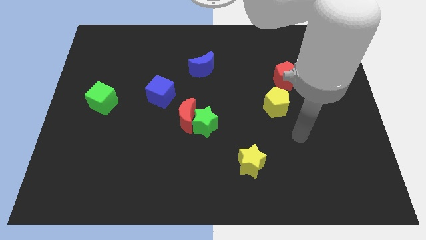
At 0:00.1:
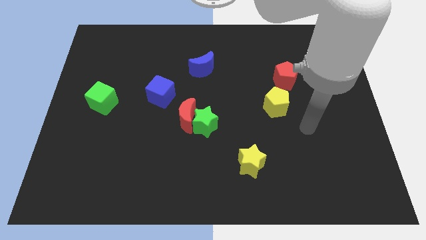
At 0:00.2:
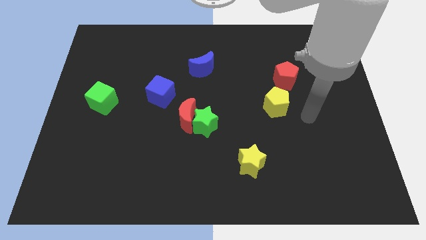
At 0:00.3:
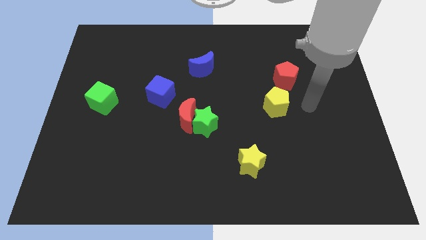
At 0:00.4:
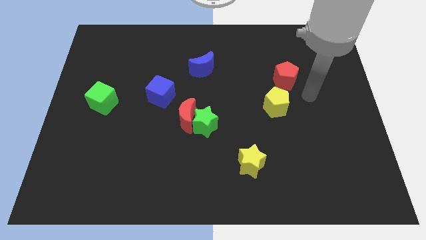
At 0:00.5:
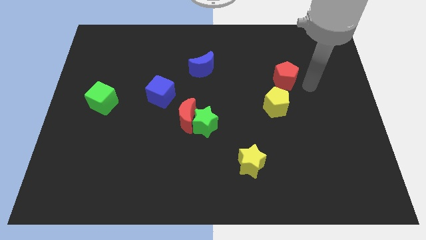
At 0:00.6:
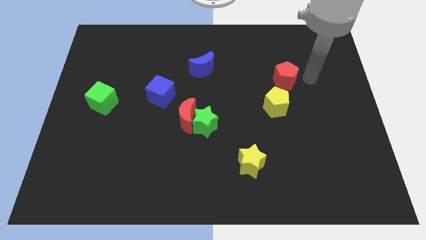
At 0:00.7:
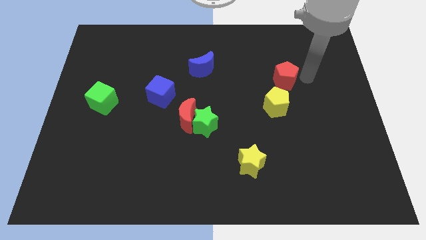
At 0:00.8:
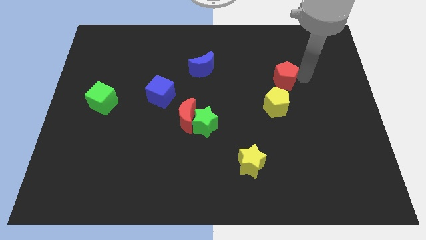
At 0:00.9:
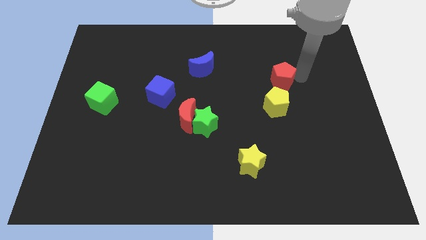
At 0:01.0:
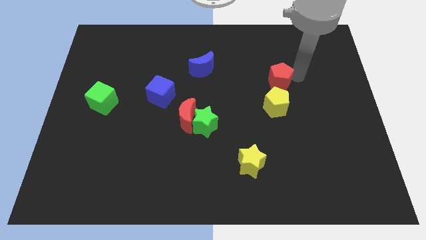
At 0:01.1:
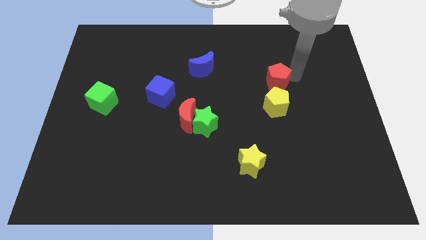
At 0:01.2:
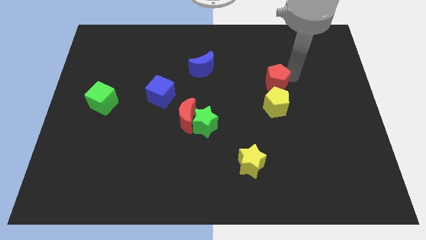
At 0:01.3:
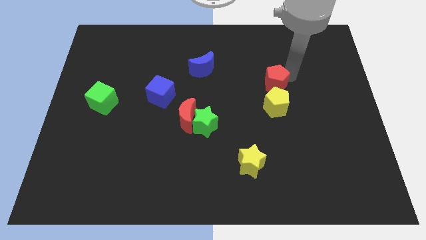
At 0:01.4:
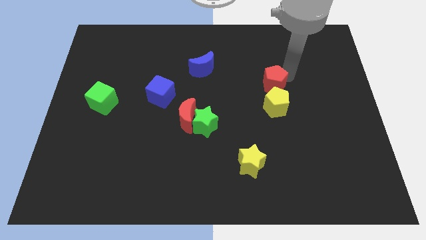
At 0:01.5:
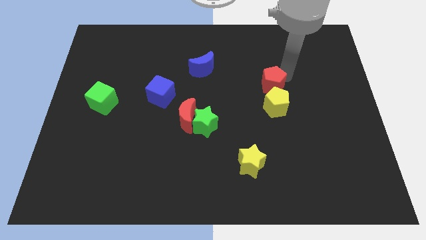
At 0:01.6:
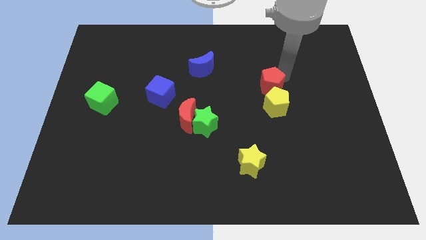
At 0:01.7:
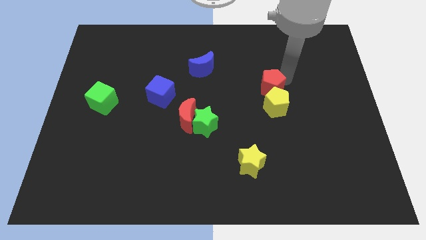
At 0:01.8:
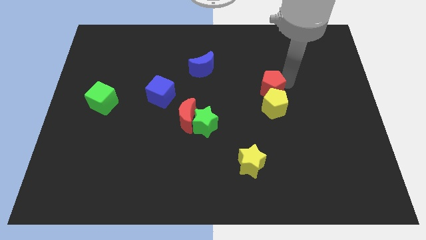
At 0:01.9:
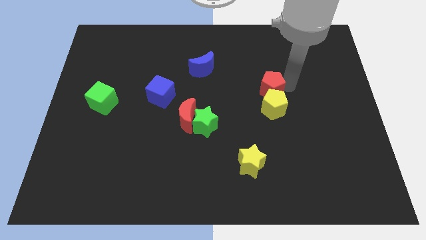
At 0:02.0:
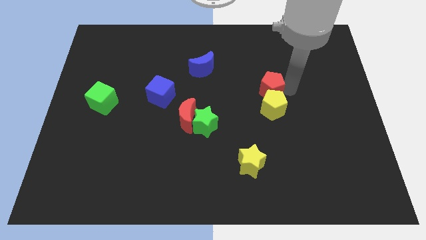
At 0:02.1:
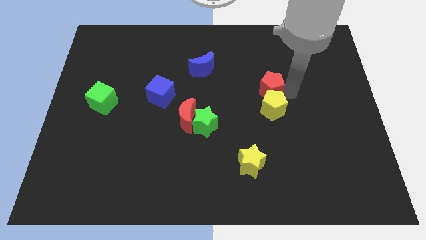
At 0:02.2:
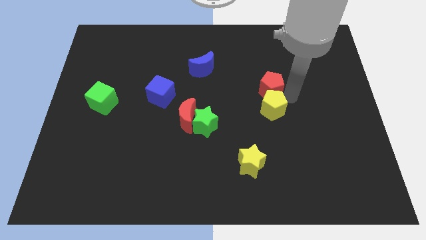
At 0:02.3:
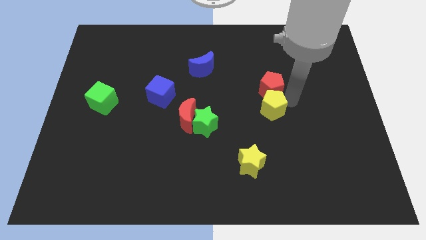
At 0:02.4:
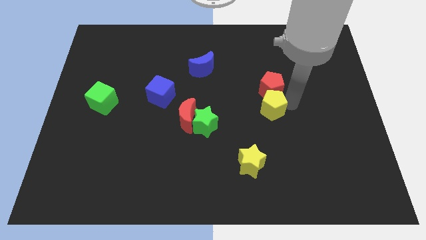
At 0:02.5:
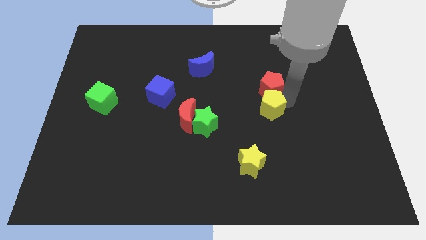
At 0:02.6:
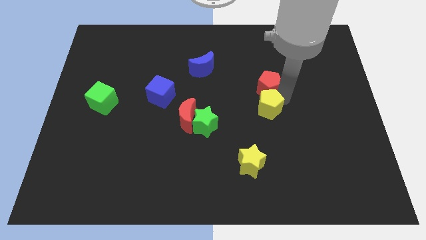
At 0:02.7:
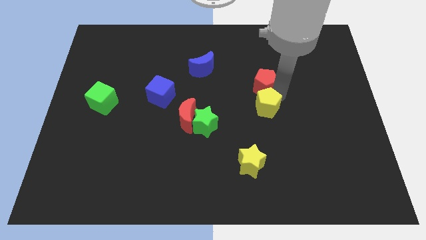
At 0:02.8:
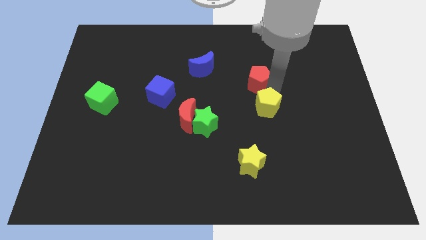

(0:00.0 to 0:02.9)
move the red pentagon a bit left

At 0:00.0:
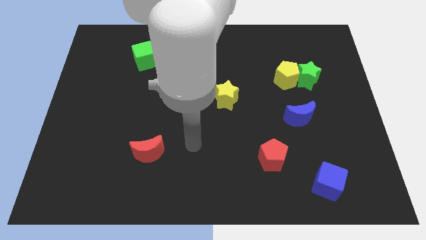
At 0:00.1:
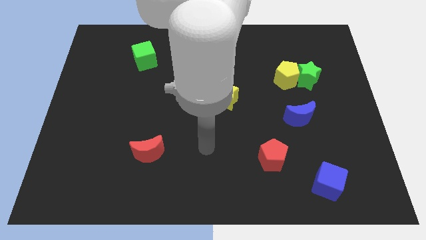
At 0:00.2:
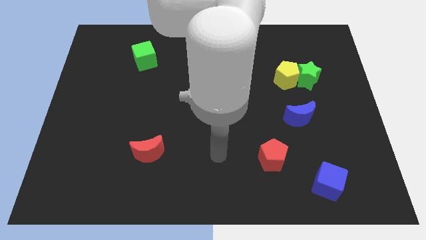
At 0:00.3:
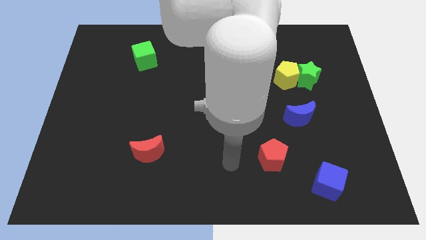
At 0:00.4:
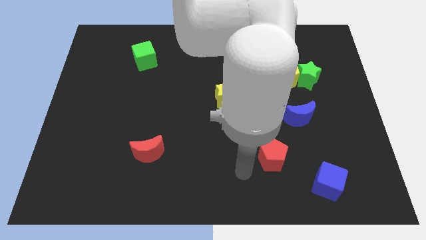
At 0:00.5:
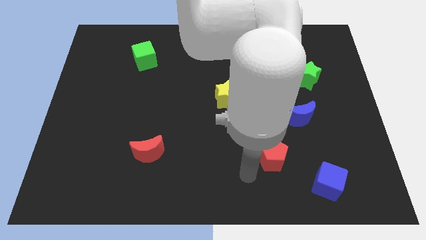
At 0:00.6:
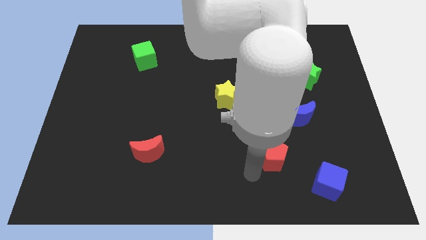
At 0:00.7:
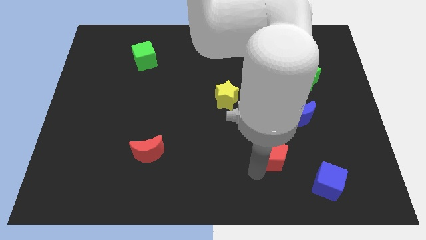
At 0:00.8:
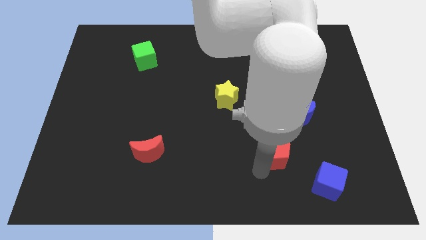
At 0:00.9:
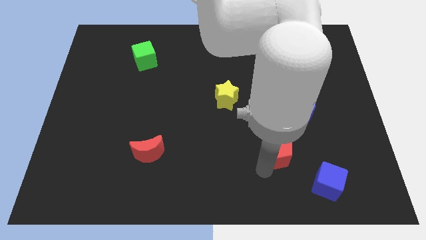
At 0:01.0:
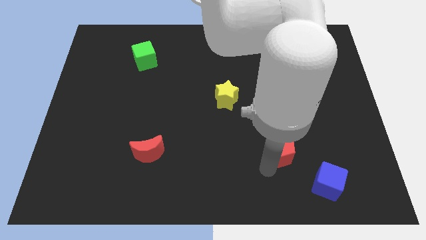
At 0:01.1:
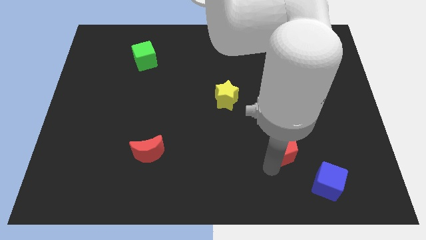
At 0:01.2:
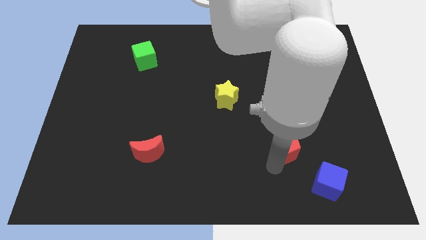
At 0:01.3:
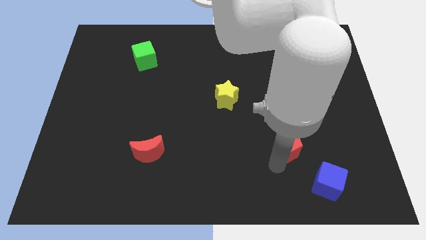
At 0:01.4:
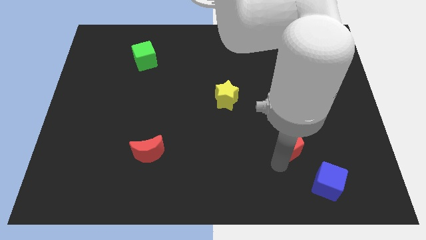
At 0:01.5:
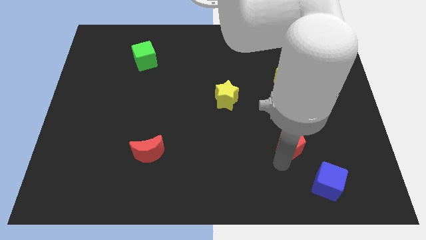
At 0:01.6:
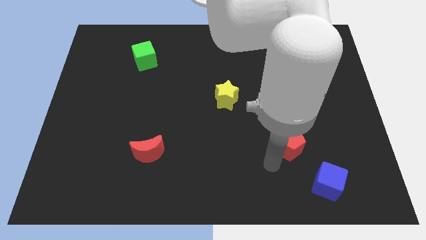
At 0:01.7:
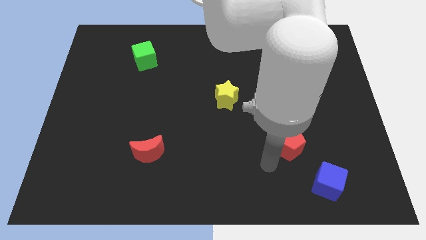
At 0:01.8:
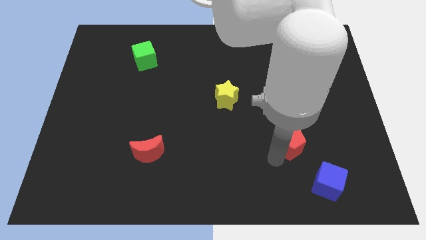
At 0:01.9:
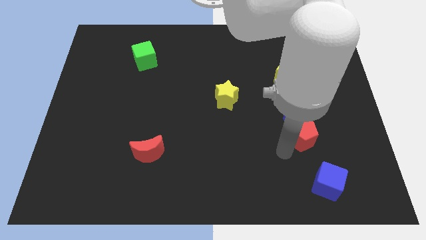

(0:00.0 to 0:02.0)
slightly move the red pentagon upwards and then right

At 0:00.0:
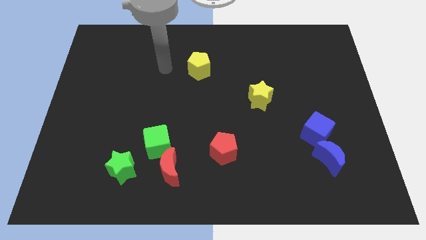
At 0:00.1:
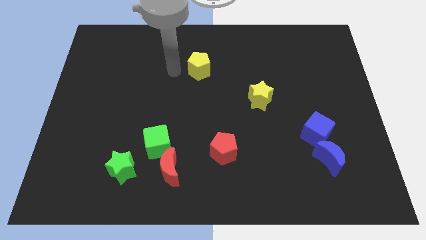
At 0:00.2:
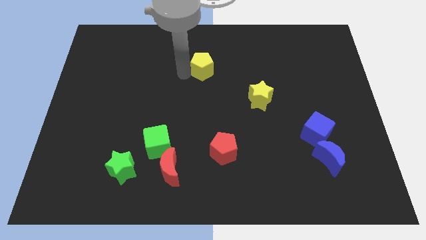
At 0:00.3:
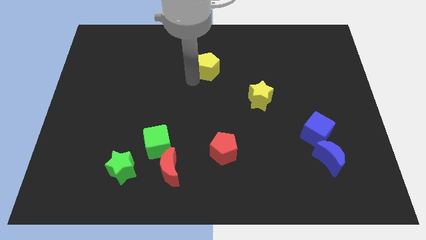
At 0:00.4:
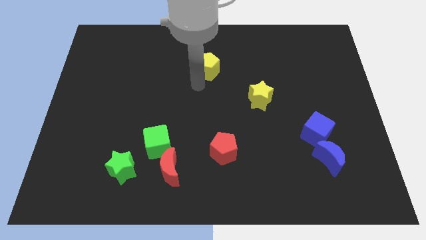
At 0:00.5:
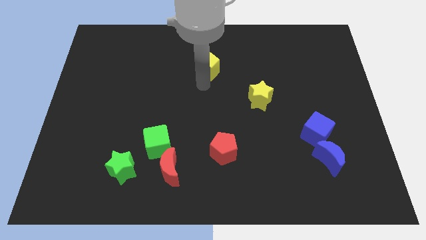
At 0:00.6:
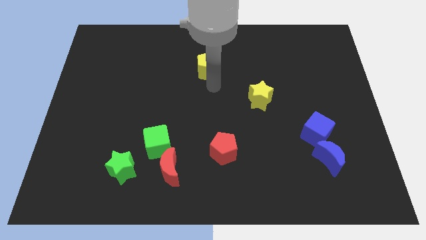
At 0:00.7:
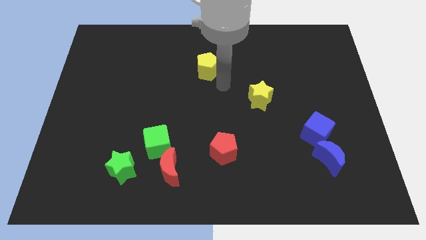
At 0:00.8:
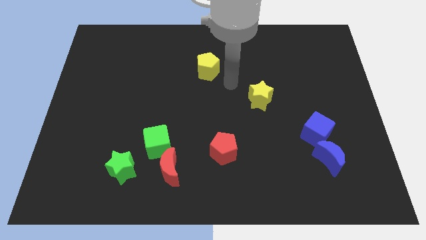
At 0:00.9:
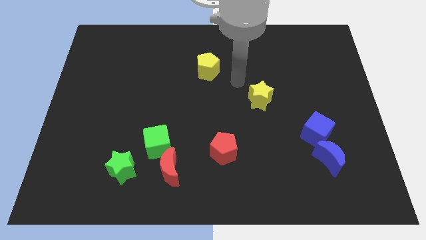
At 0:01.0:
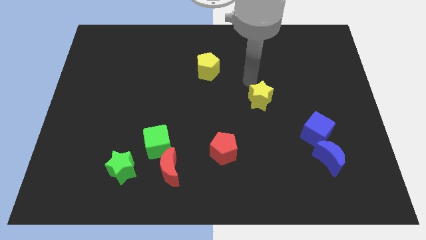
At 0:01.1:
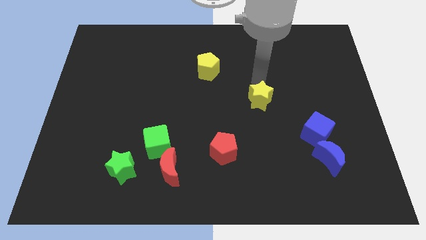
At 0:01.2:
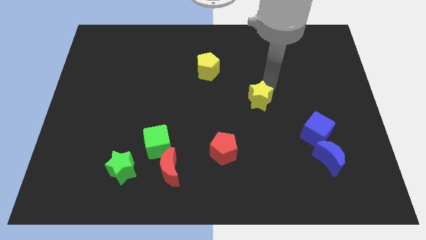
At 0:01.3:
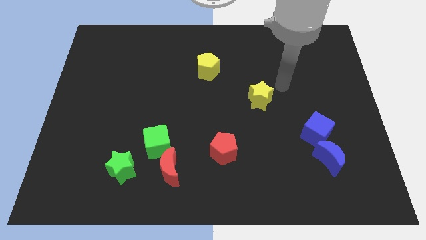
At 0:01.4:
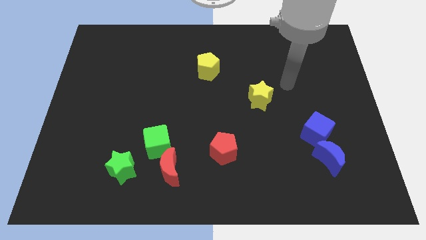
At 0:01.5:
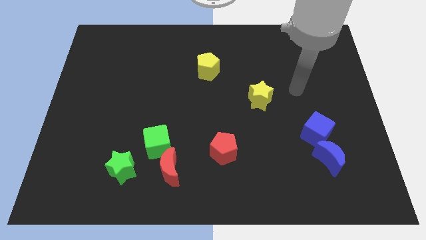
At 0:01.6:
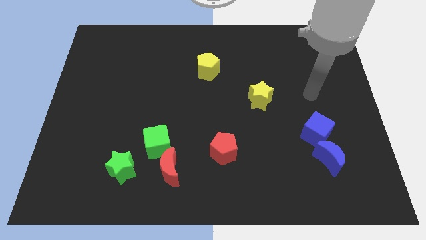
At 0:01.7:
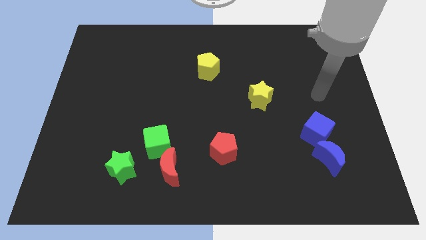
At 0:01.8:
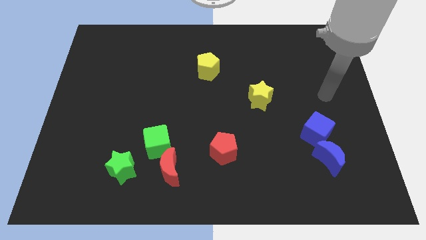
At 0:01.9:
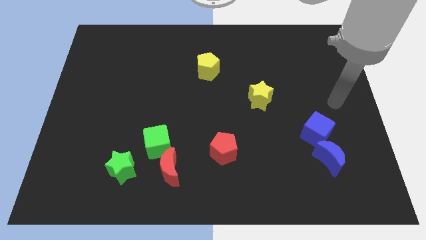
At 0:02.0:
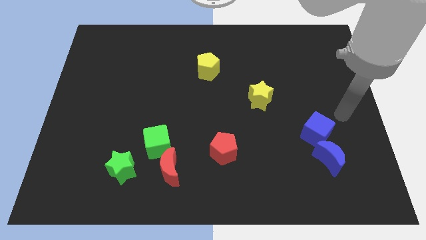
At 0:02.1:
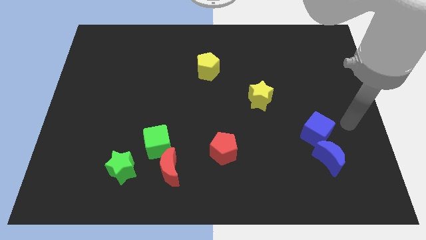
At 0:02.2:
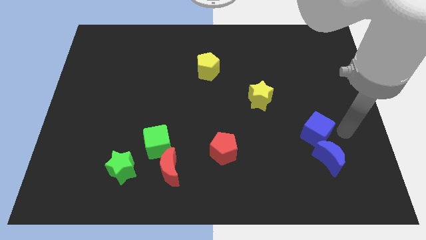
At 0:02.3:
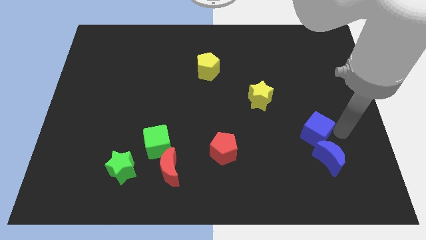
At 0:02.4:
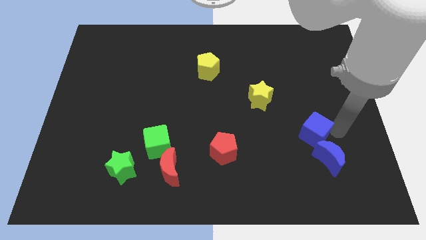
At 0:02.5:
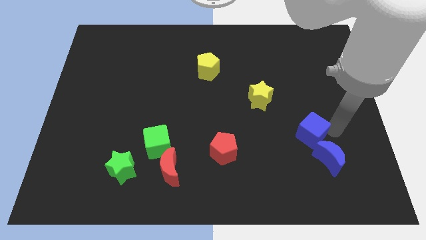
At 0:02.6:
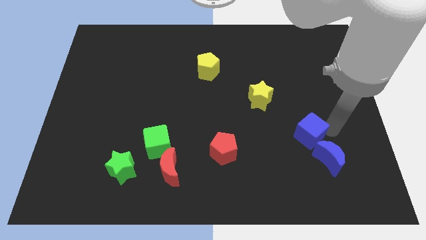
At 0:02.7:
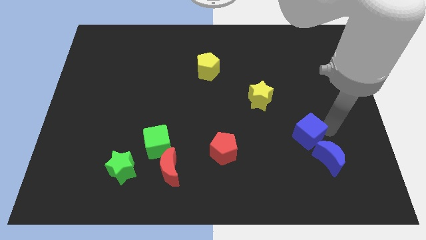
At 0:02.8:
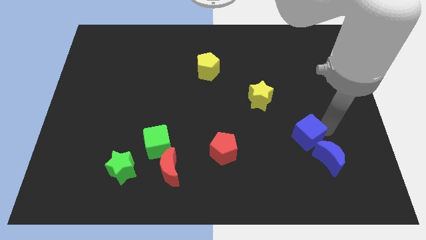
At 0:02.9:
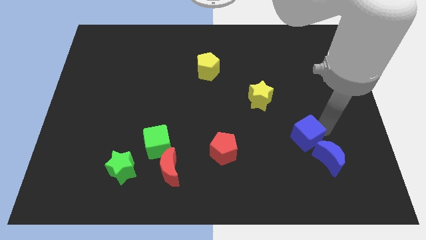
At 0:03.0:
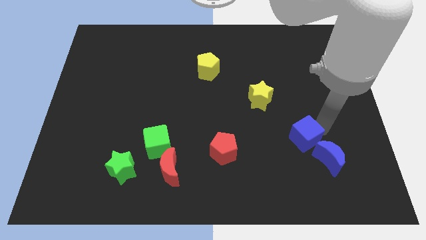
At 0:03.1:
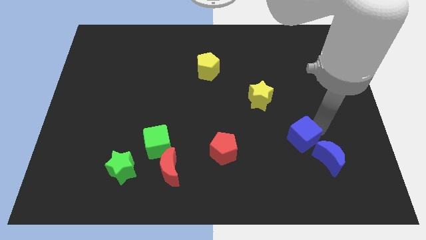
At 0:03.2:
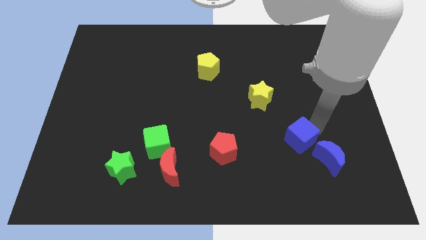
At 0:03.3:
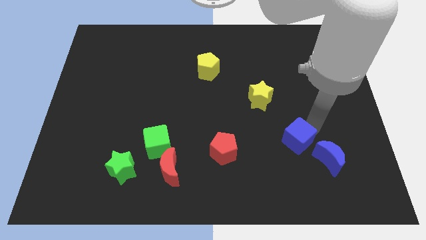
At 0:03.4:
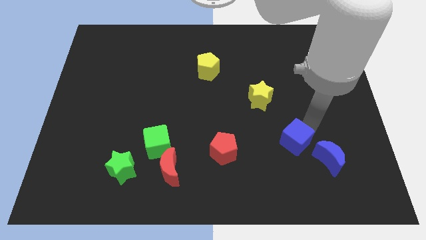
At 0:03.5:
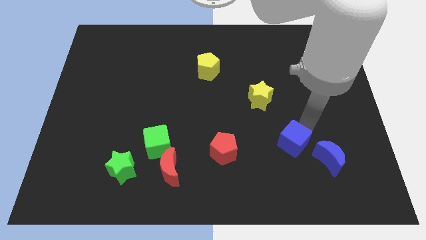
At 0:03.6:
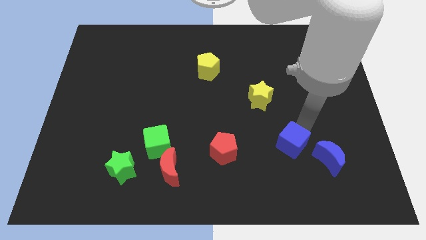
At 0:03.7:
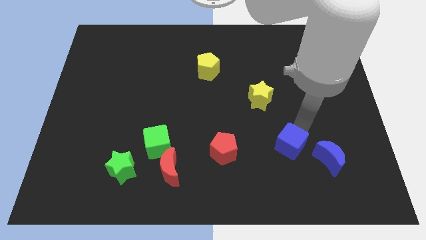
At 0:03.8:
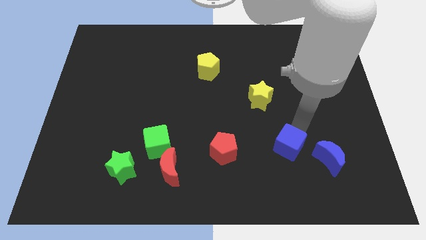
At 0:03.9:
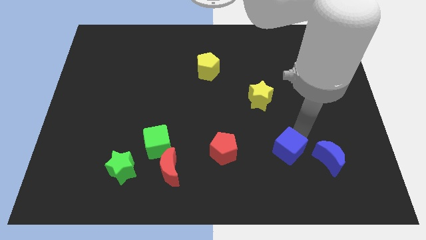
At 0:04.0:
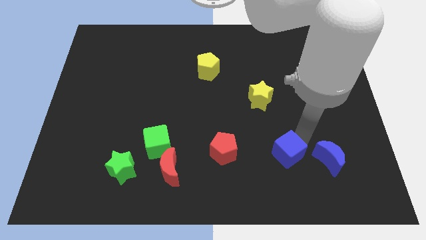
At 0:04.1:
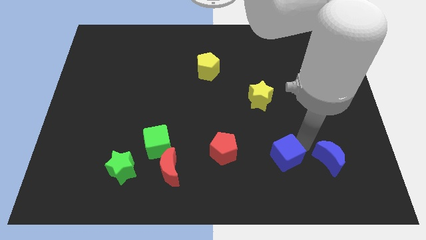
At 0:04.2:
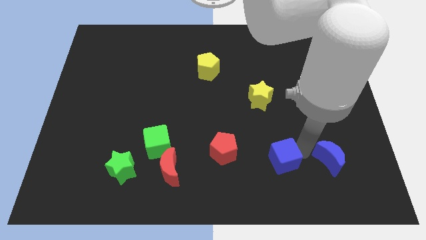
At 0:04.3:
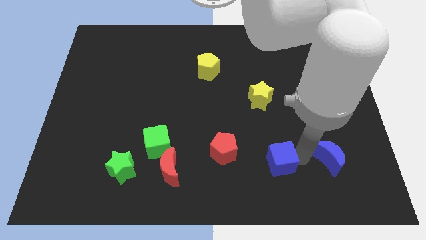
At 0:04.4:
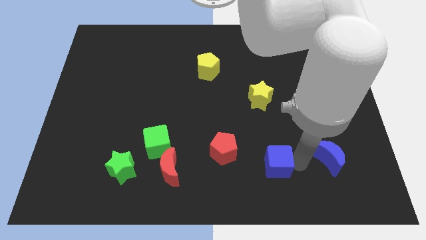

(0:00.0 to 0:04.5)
push the blue cube a little bit to the left
